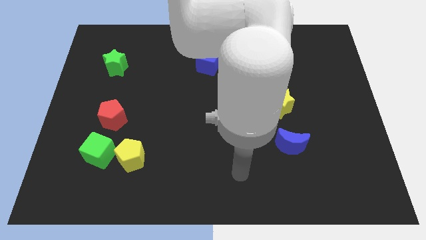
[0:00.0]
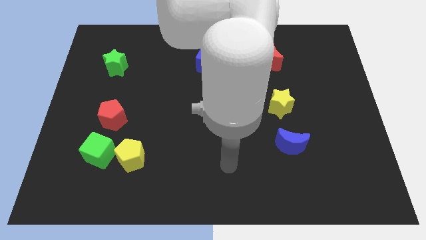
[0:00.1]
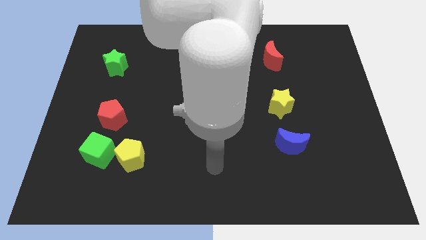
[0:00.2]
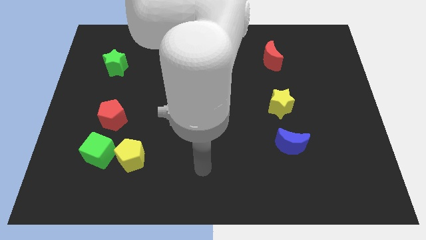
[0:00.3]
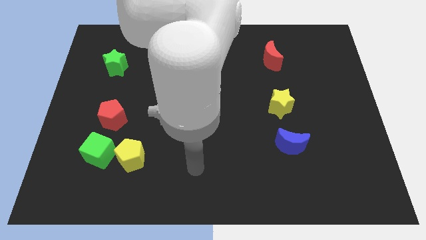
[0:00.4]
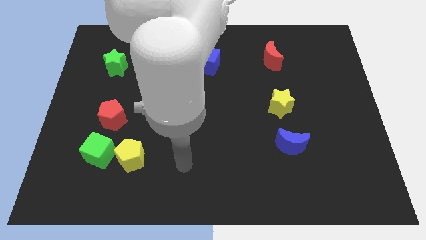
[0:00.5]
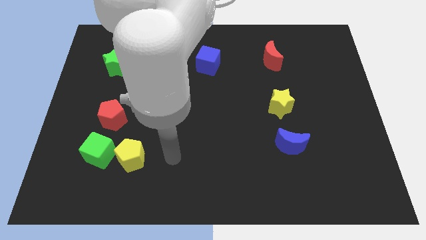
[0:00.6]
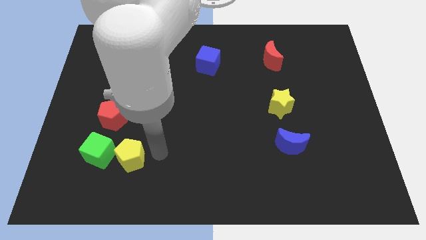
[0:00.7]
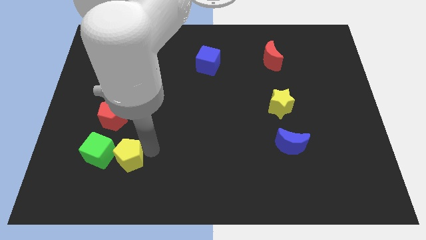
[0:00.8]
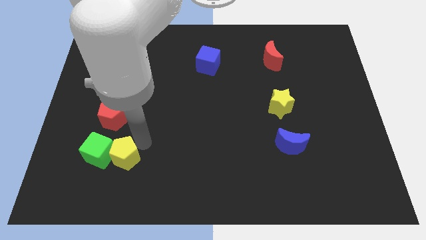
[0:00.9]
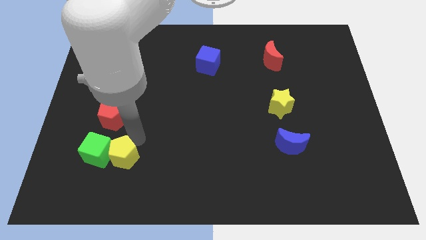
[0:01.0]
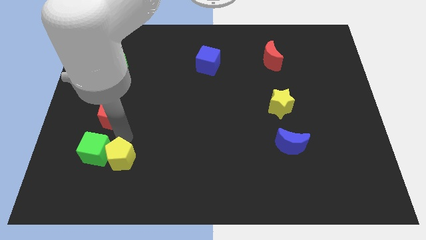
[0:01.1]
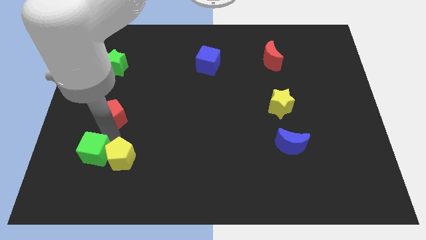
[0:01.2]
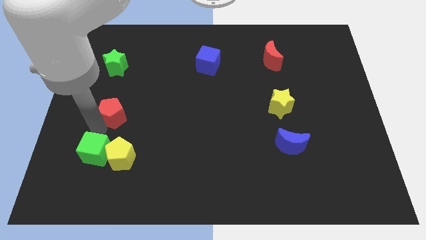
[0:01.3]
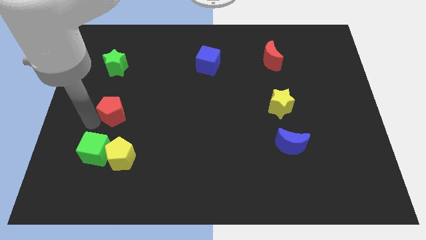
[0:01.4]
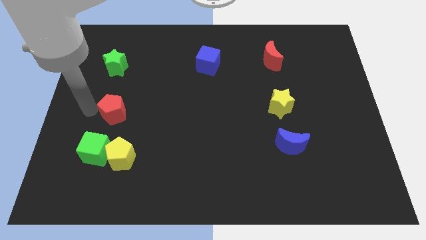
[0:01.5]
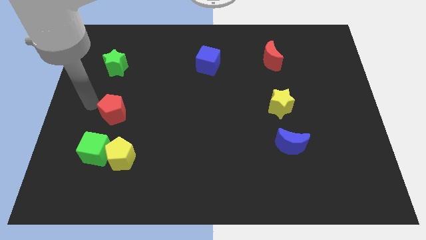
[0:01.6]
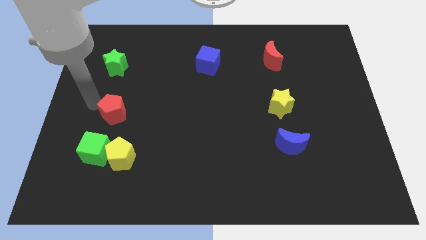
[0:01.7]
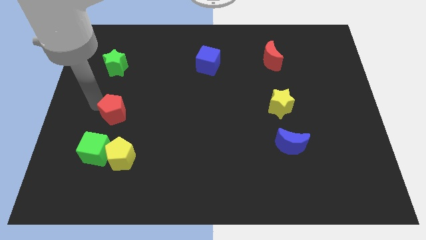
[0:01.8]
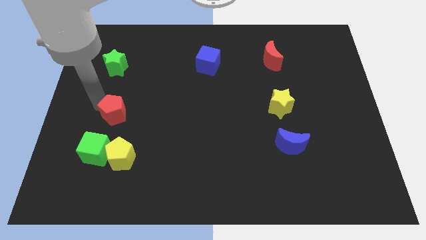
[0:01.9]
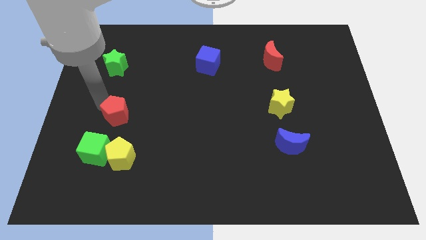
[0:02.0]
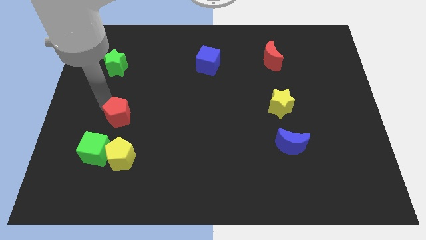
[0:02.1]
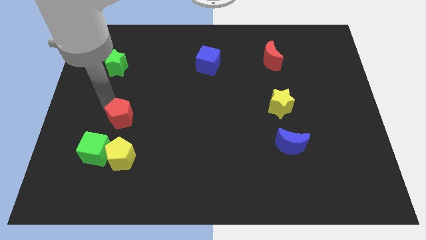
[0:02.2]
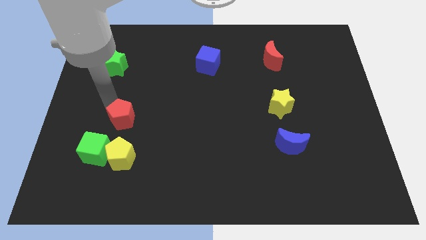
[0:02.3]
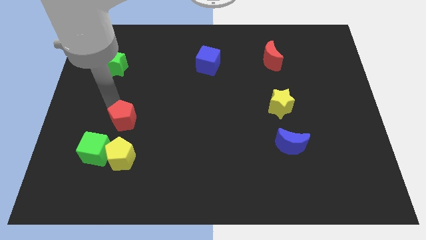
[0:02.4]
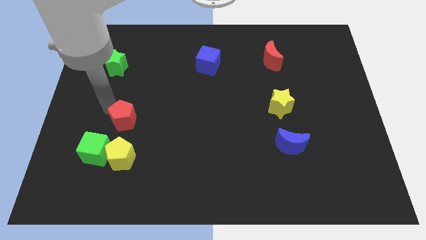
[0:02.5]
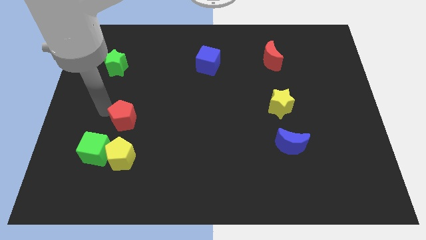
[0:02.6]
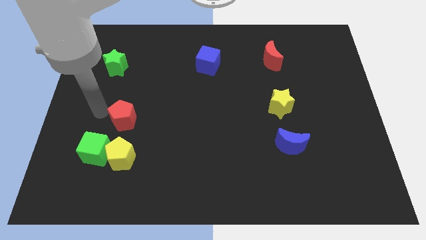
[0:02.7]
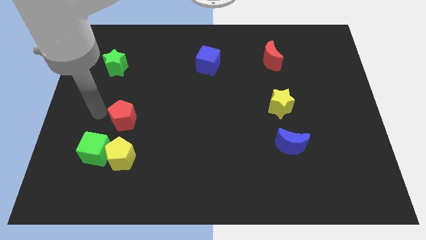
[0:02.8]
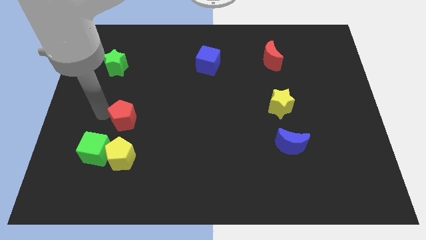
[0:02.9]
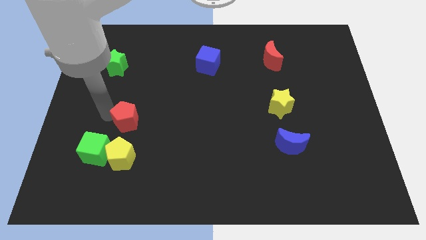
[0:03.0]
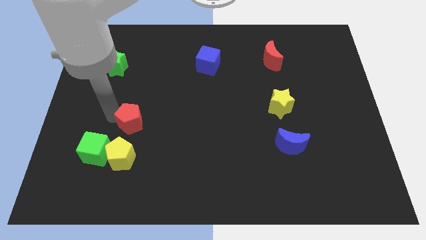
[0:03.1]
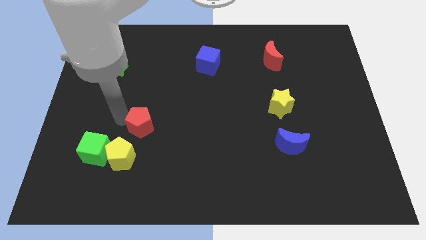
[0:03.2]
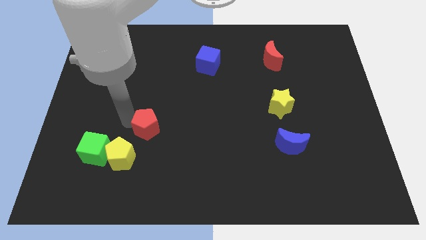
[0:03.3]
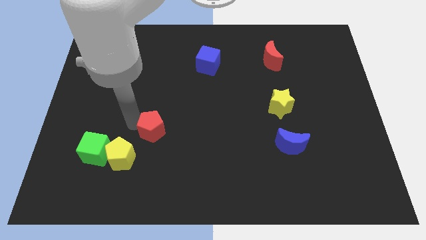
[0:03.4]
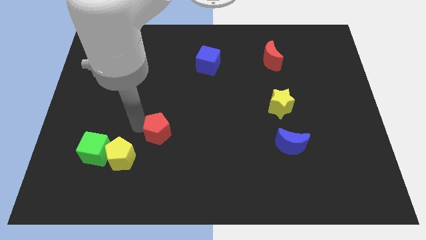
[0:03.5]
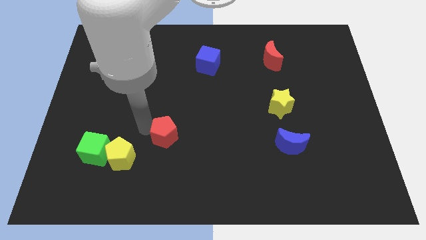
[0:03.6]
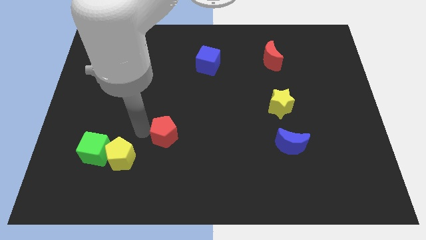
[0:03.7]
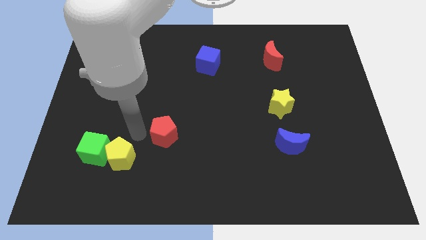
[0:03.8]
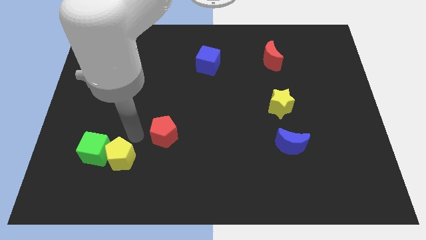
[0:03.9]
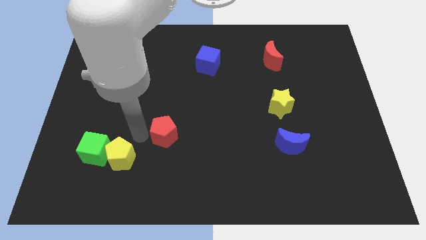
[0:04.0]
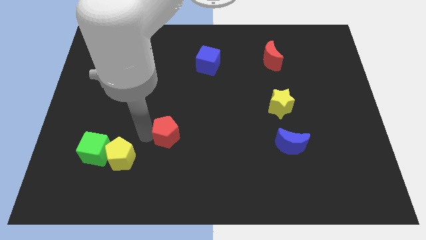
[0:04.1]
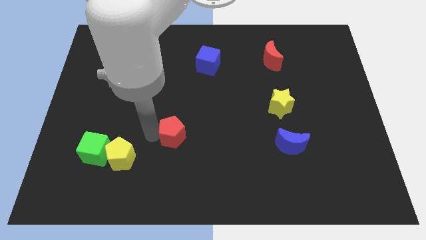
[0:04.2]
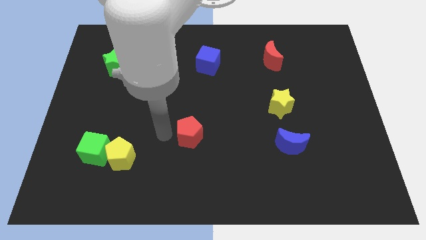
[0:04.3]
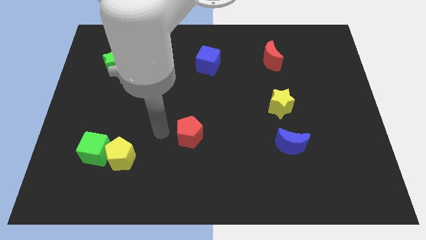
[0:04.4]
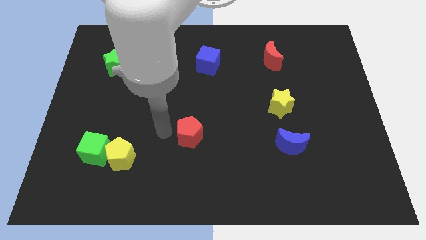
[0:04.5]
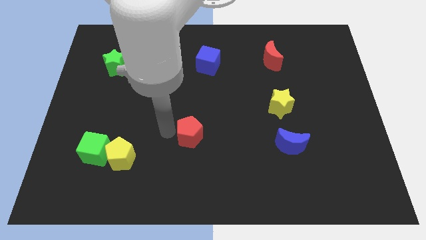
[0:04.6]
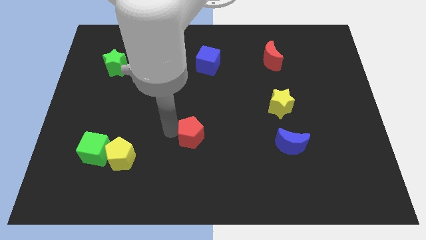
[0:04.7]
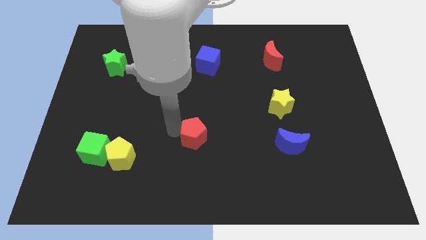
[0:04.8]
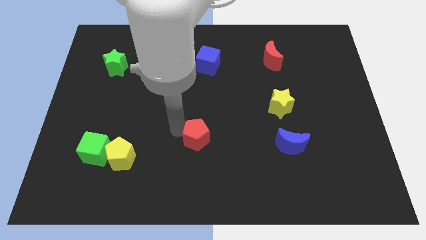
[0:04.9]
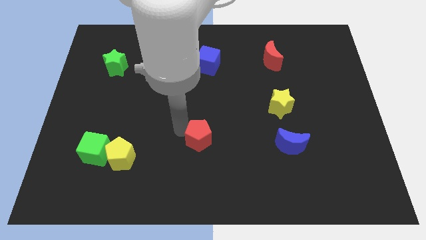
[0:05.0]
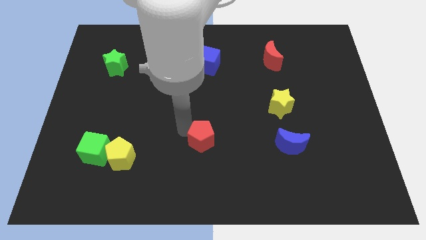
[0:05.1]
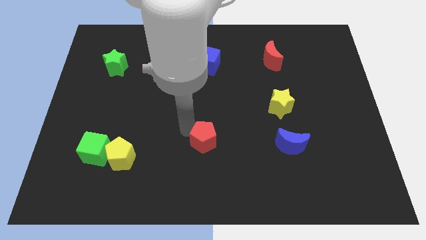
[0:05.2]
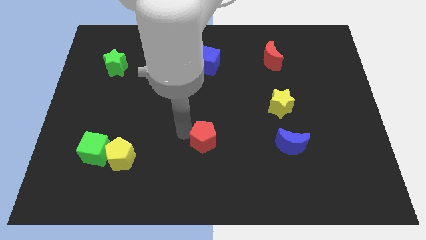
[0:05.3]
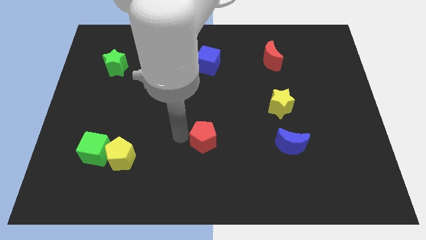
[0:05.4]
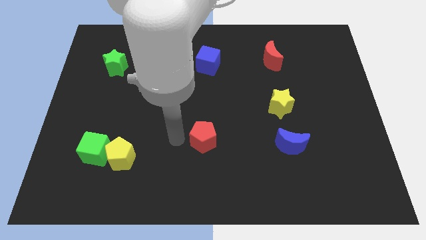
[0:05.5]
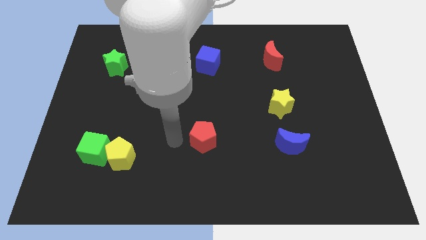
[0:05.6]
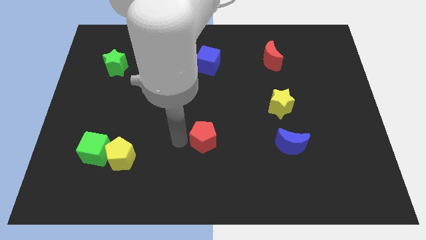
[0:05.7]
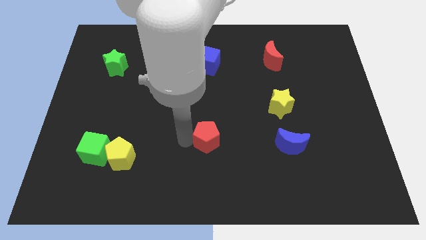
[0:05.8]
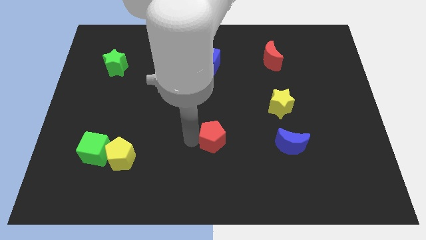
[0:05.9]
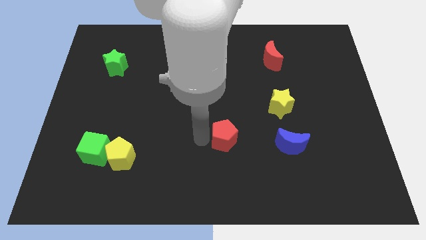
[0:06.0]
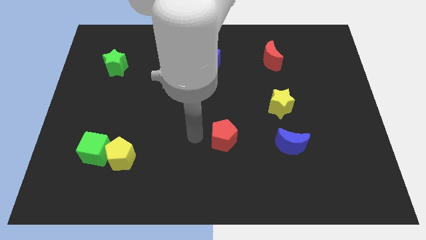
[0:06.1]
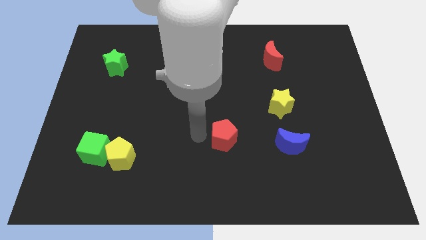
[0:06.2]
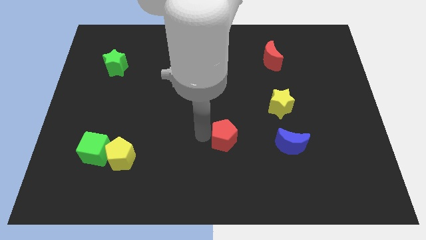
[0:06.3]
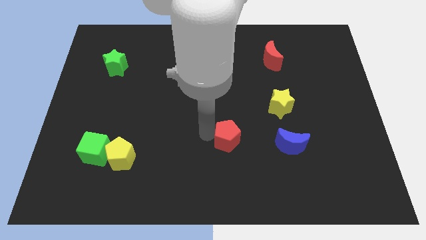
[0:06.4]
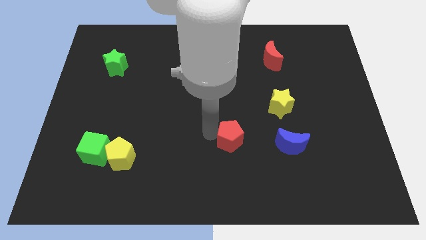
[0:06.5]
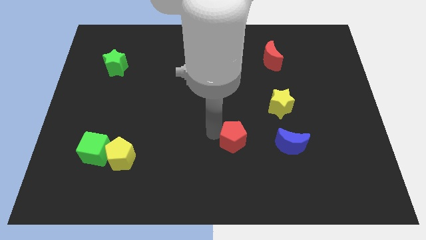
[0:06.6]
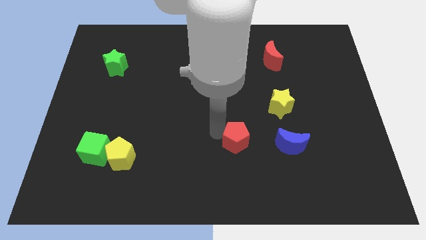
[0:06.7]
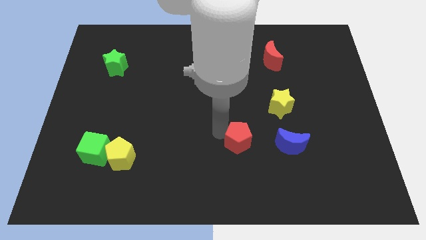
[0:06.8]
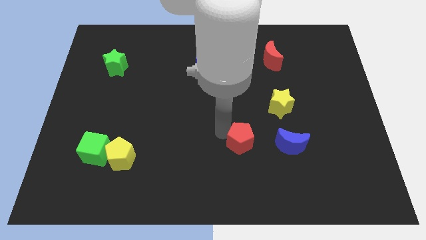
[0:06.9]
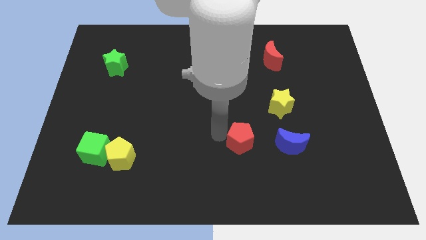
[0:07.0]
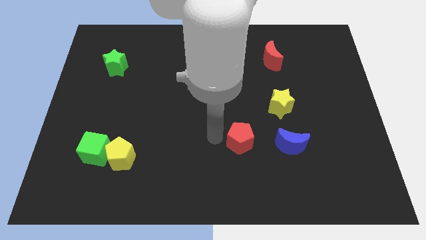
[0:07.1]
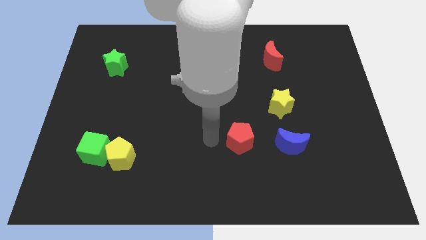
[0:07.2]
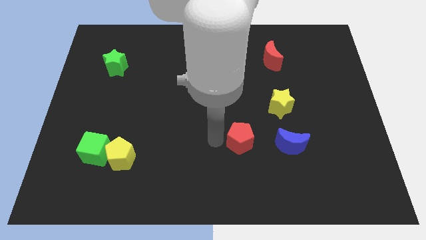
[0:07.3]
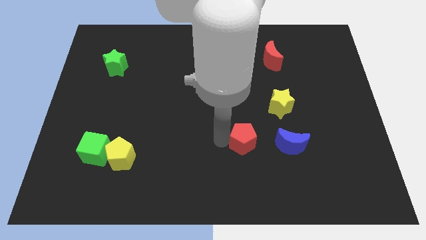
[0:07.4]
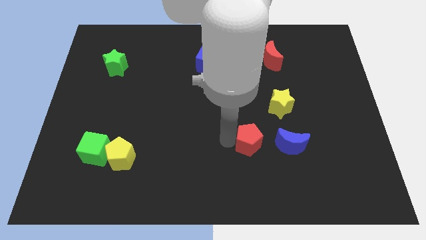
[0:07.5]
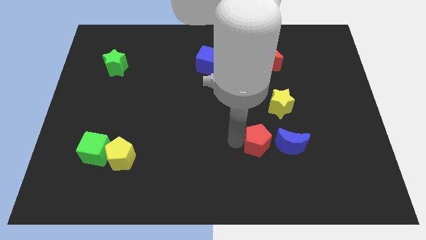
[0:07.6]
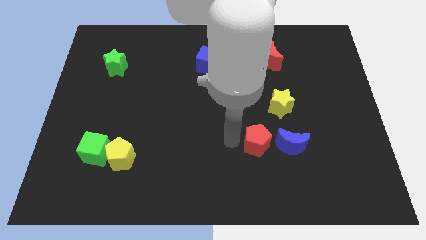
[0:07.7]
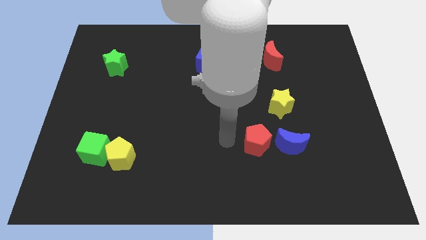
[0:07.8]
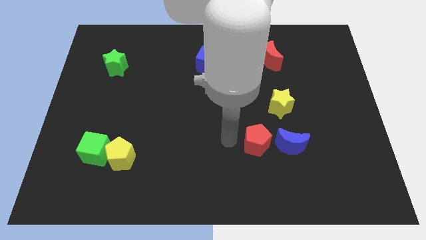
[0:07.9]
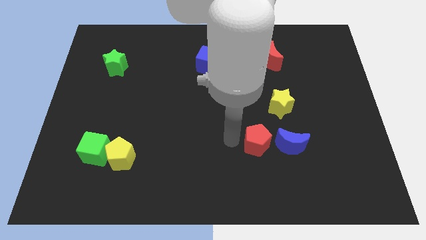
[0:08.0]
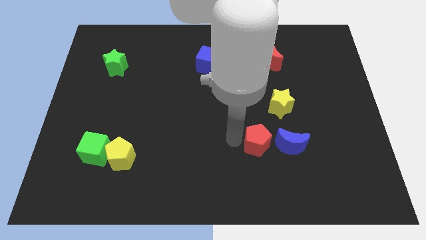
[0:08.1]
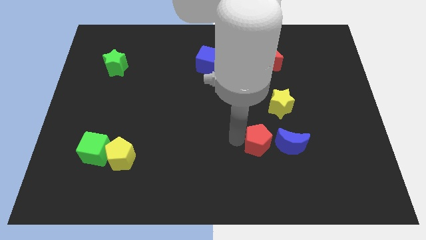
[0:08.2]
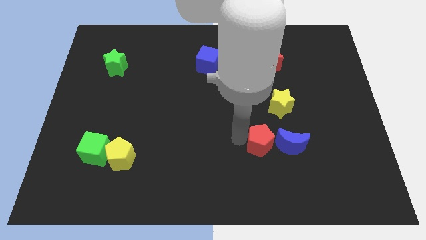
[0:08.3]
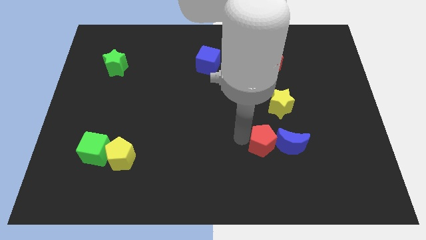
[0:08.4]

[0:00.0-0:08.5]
put the red pentagon next to the blue moon
